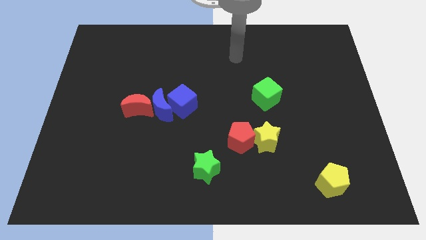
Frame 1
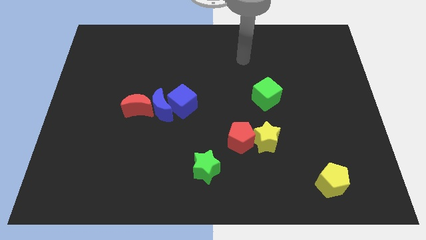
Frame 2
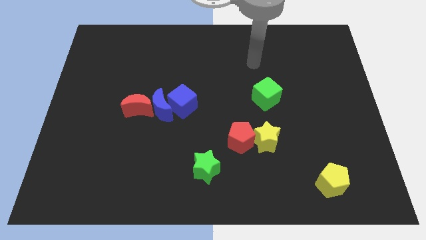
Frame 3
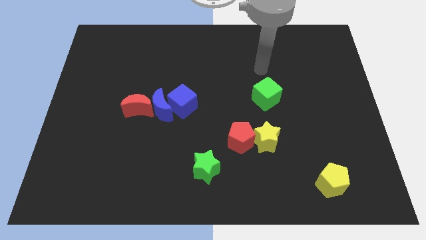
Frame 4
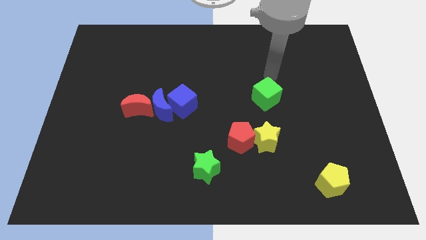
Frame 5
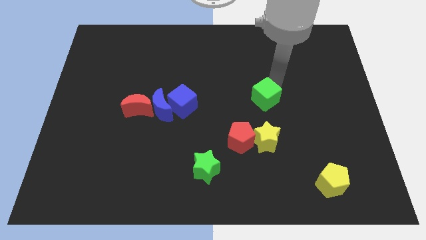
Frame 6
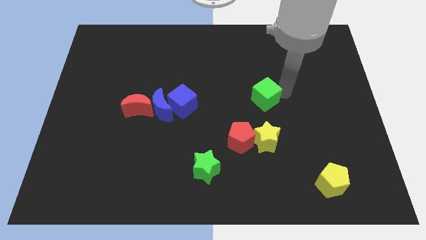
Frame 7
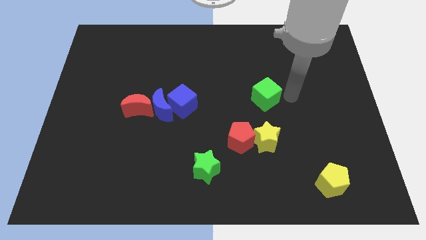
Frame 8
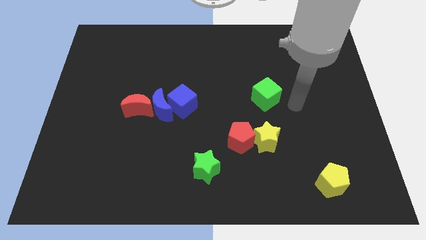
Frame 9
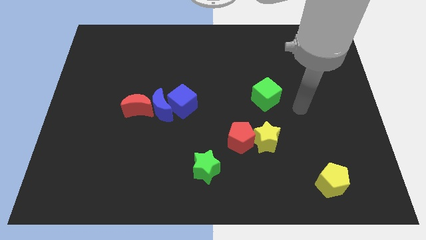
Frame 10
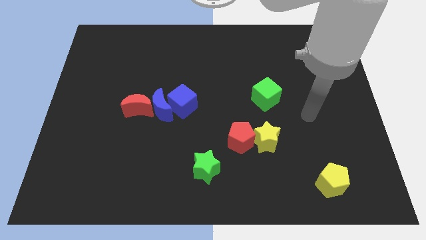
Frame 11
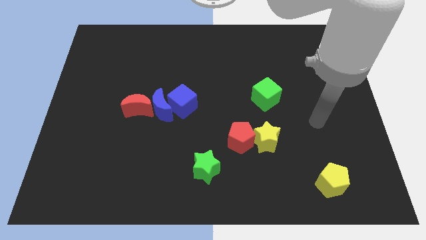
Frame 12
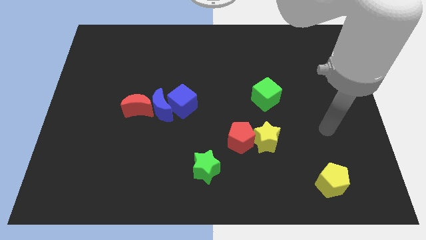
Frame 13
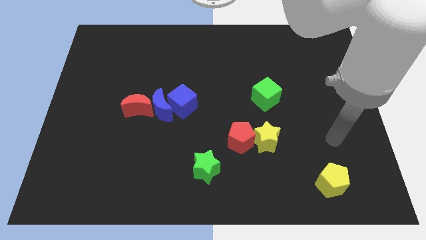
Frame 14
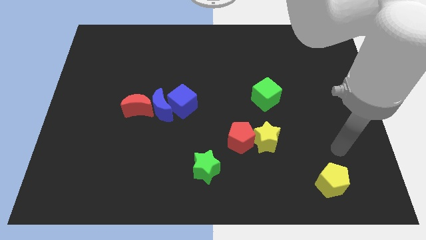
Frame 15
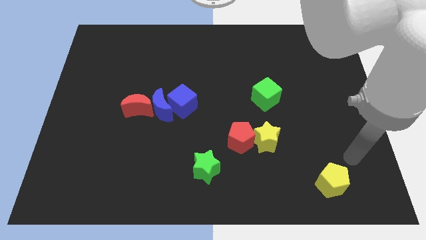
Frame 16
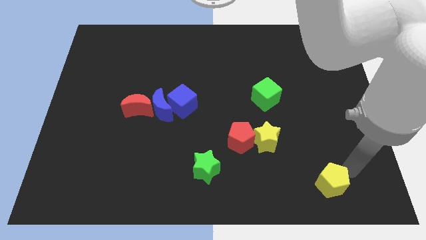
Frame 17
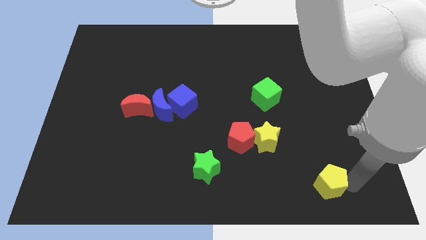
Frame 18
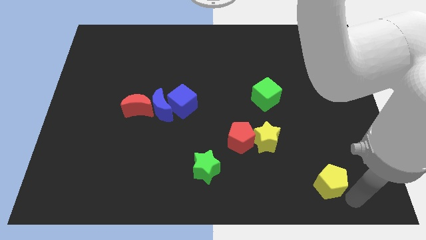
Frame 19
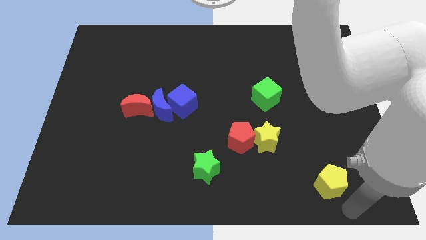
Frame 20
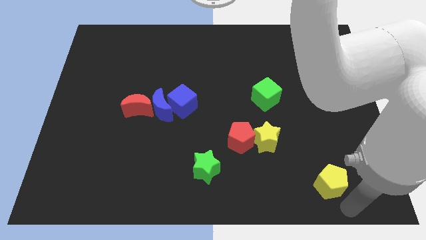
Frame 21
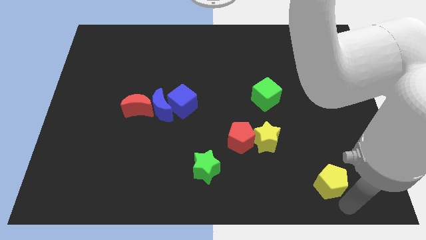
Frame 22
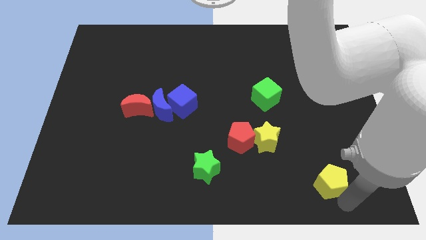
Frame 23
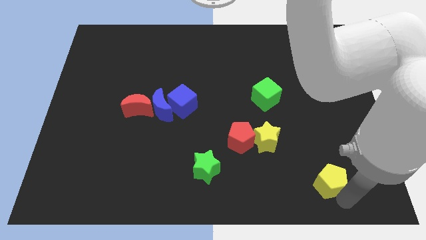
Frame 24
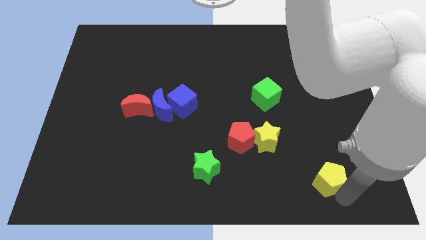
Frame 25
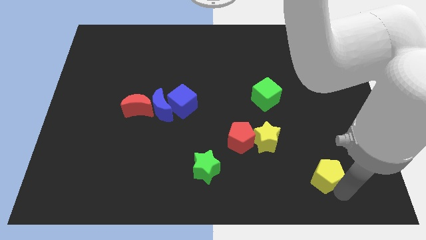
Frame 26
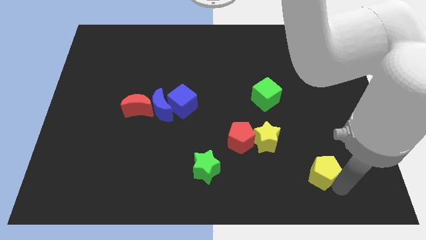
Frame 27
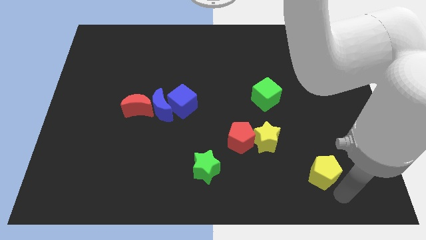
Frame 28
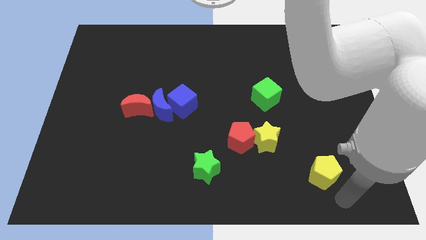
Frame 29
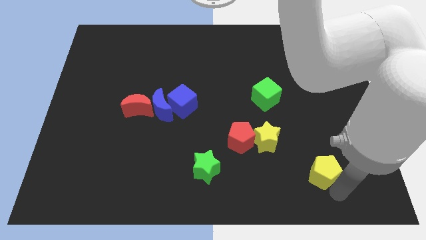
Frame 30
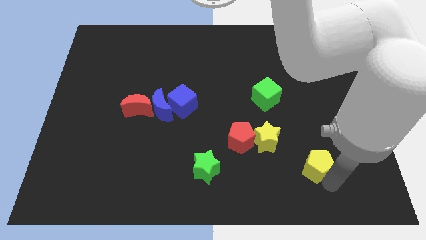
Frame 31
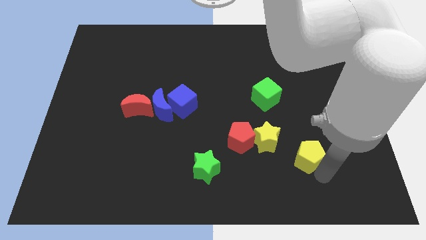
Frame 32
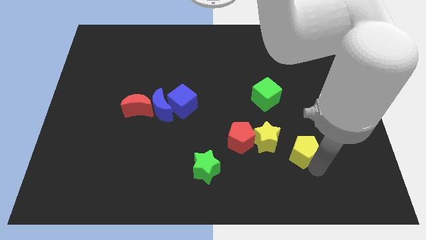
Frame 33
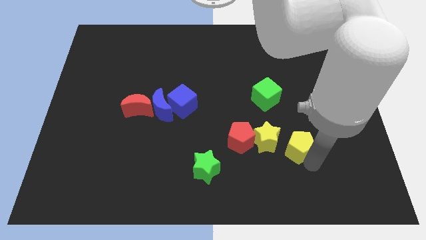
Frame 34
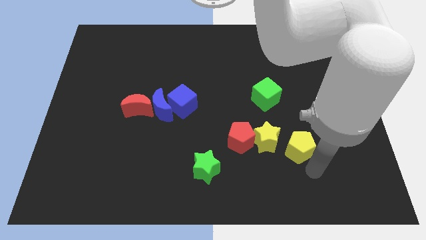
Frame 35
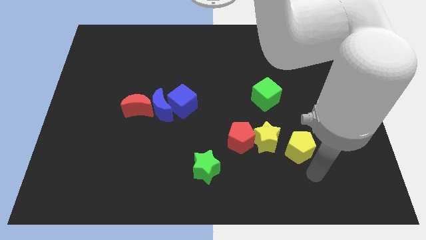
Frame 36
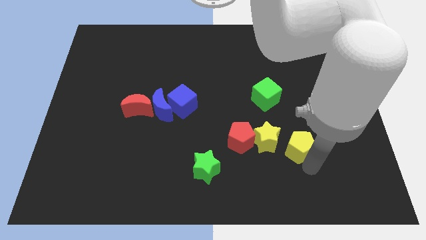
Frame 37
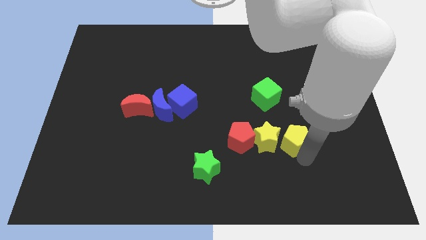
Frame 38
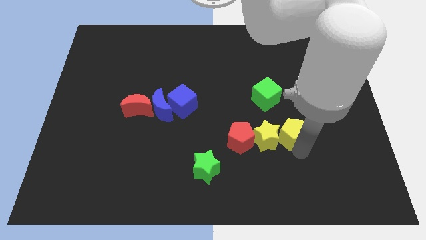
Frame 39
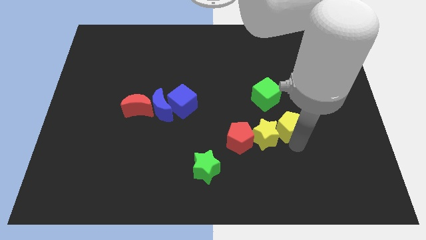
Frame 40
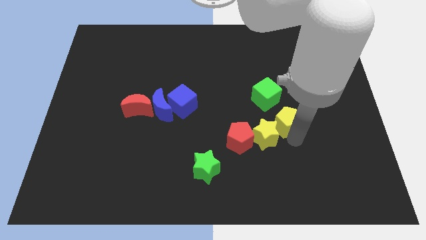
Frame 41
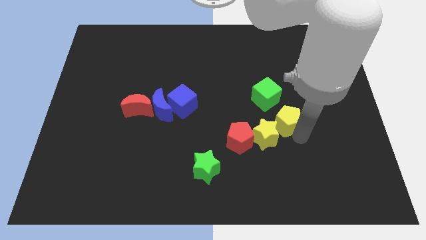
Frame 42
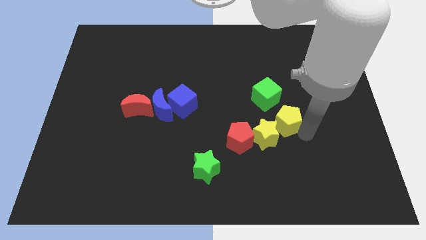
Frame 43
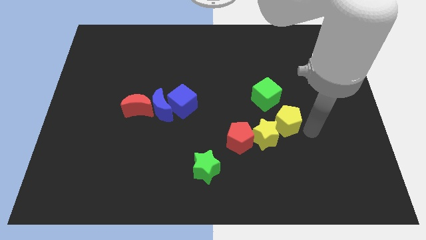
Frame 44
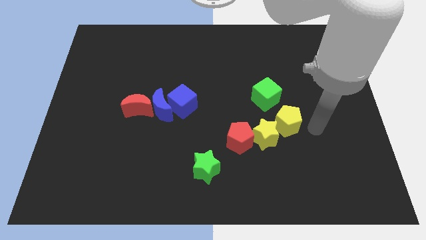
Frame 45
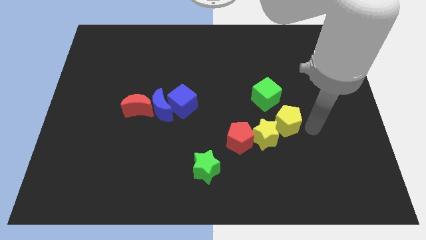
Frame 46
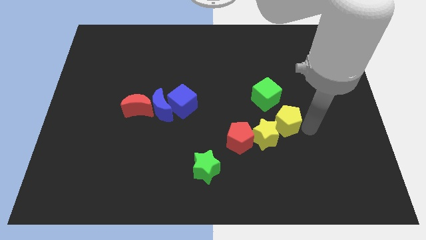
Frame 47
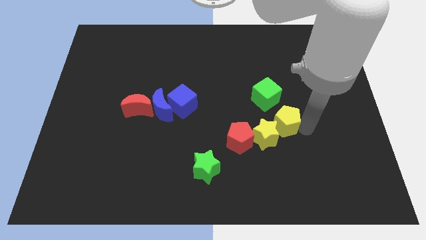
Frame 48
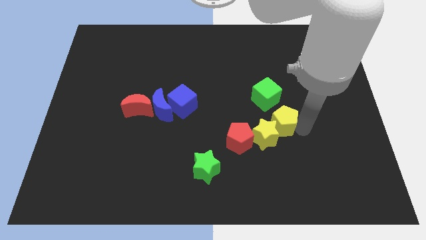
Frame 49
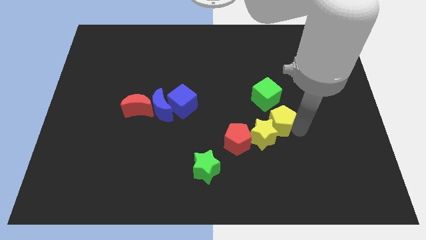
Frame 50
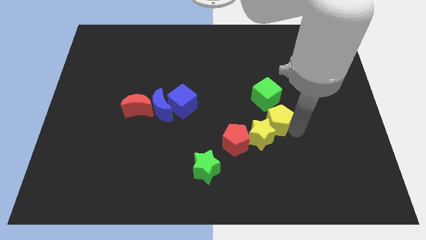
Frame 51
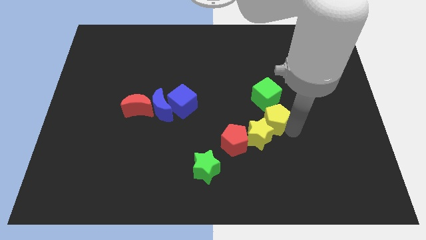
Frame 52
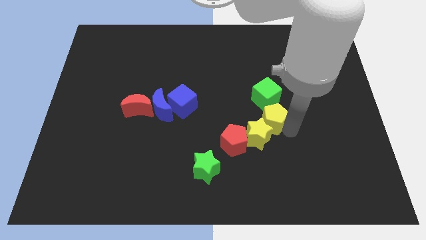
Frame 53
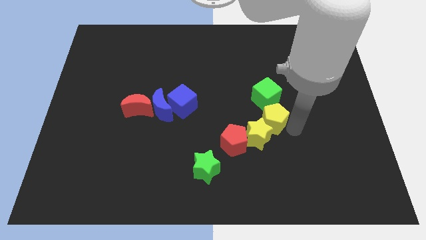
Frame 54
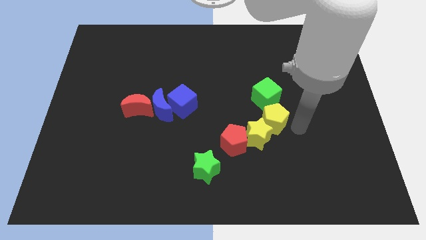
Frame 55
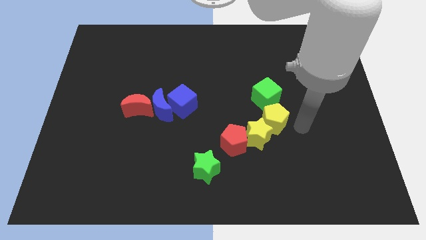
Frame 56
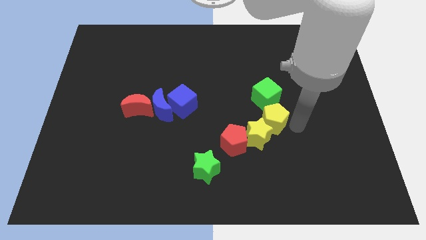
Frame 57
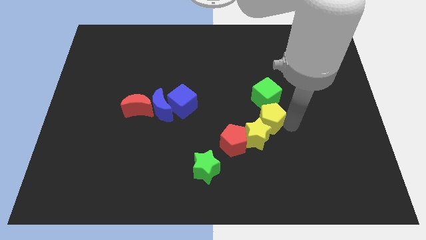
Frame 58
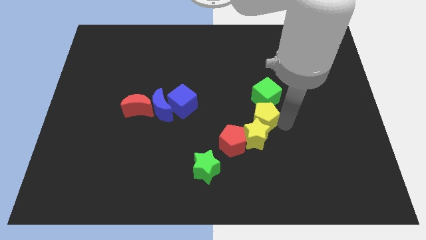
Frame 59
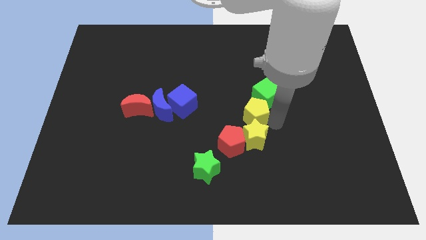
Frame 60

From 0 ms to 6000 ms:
push the yellow pentagon to the center
